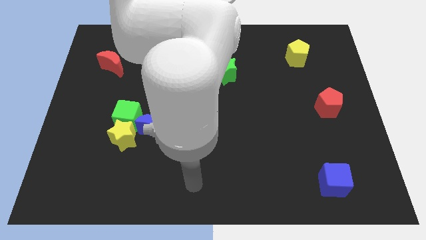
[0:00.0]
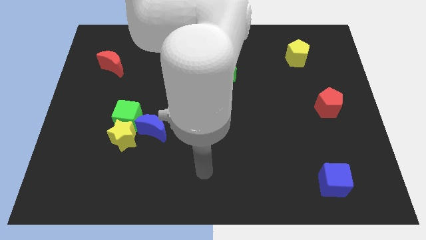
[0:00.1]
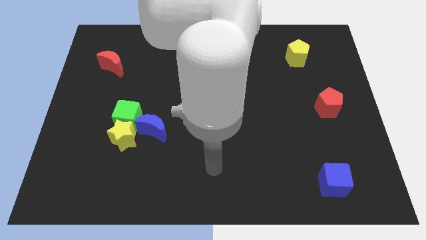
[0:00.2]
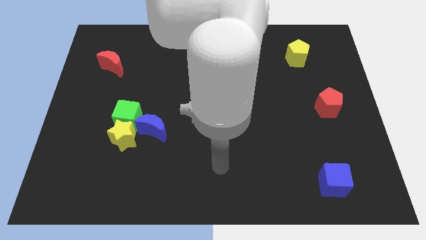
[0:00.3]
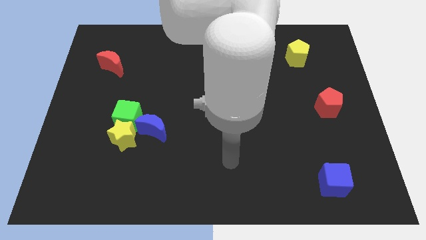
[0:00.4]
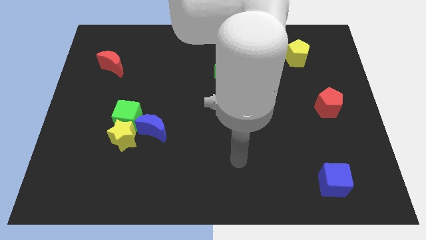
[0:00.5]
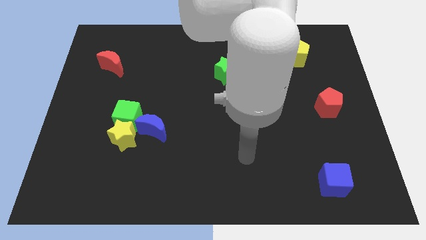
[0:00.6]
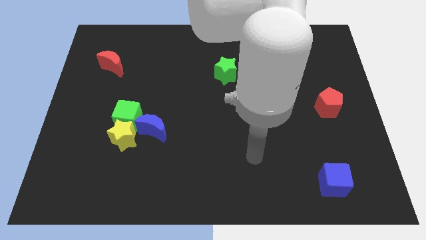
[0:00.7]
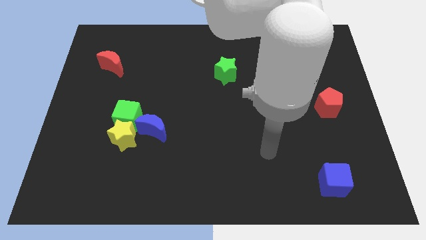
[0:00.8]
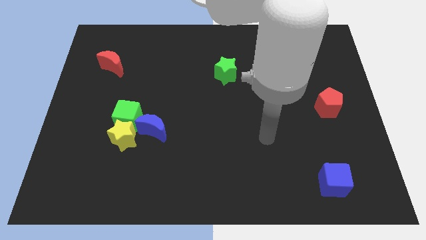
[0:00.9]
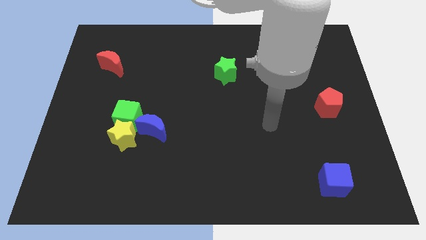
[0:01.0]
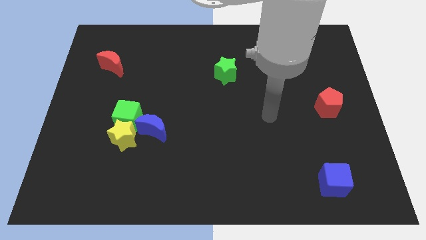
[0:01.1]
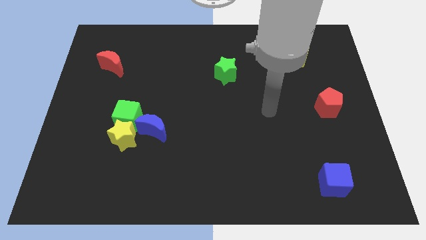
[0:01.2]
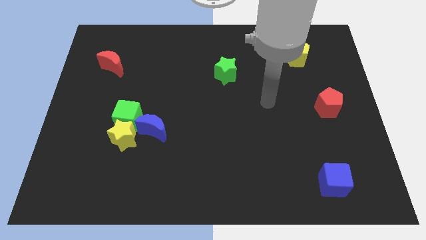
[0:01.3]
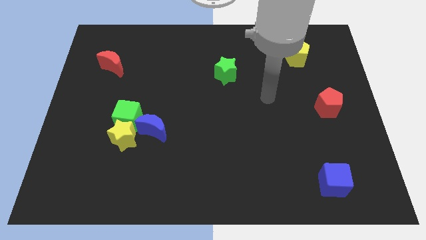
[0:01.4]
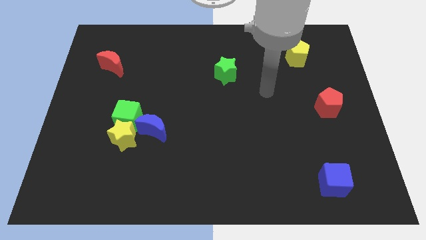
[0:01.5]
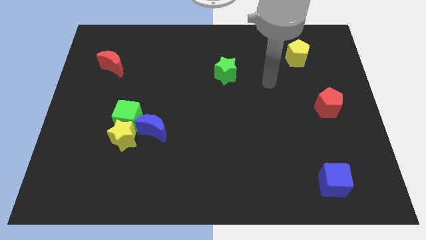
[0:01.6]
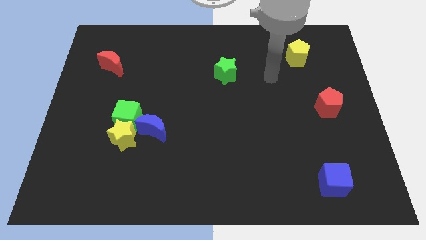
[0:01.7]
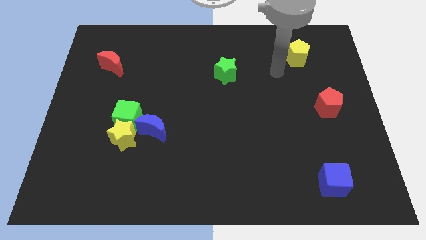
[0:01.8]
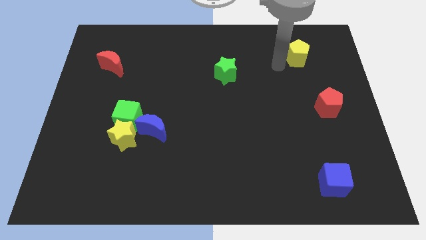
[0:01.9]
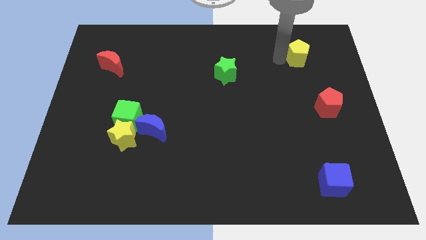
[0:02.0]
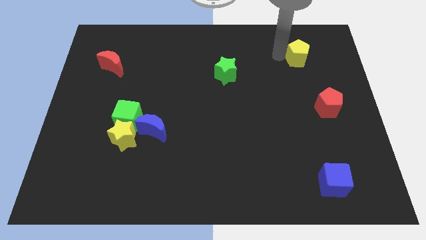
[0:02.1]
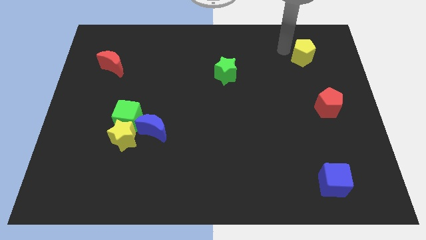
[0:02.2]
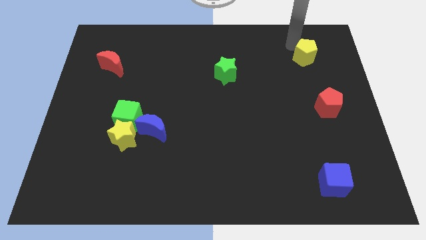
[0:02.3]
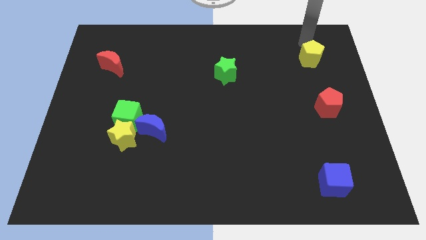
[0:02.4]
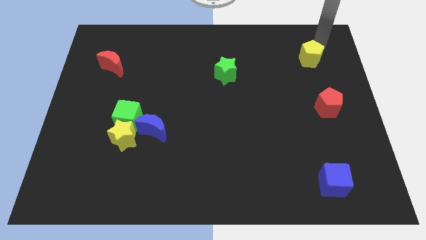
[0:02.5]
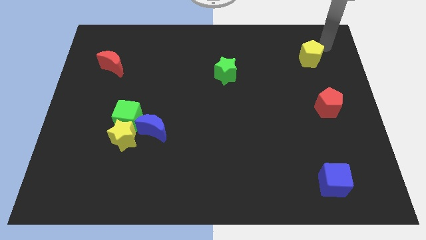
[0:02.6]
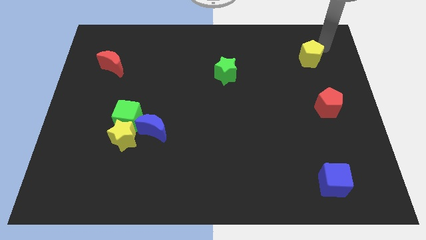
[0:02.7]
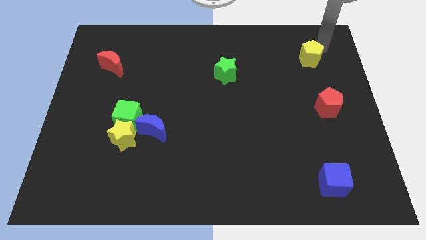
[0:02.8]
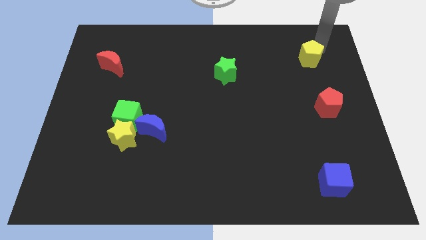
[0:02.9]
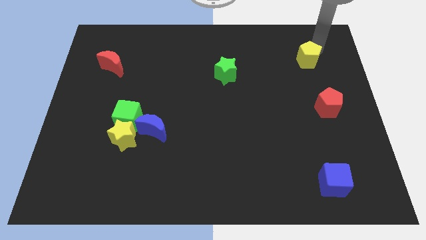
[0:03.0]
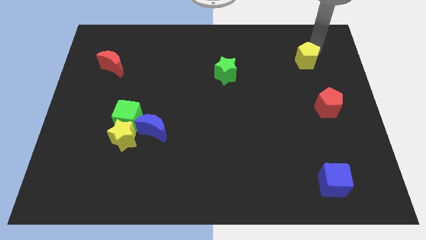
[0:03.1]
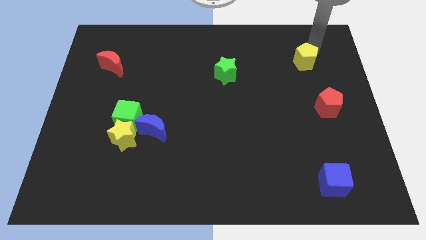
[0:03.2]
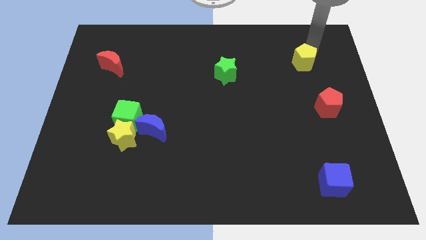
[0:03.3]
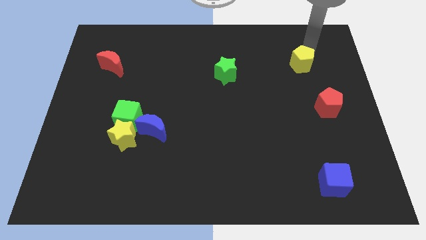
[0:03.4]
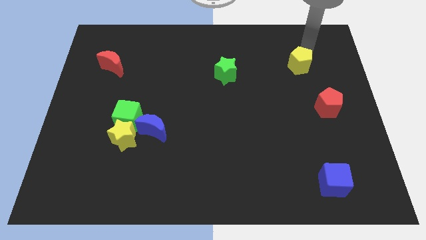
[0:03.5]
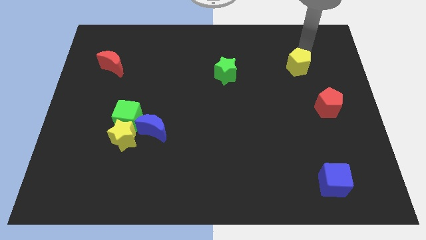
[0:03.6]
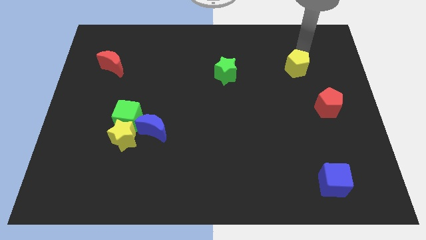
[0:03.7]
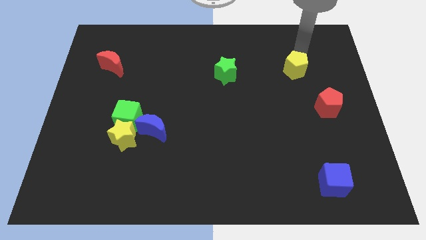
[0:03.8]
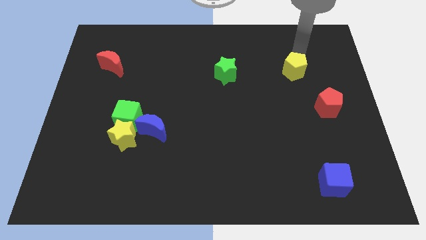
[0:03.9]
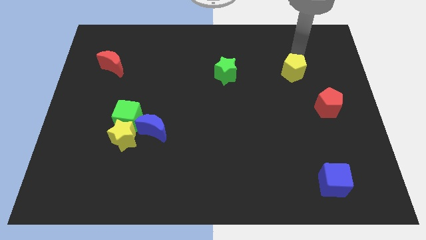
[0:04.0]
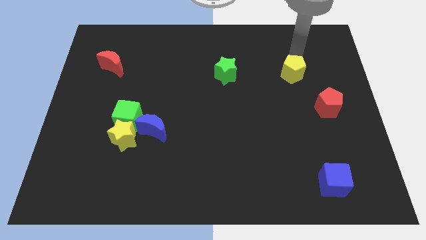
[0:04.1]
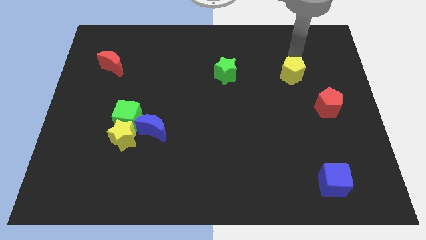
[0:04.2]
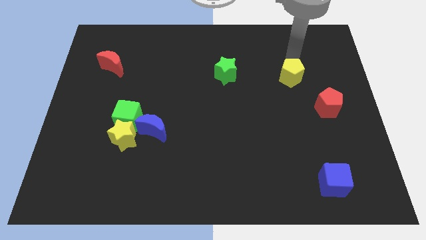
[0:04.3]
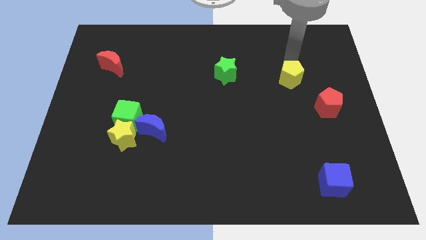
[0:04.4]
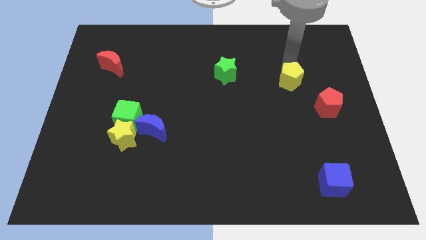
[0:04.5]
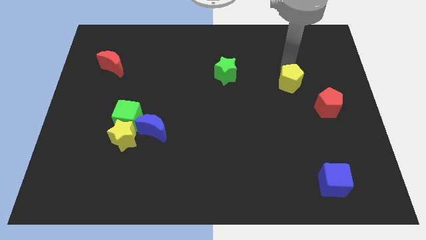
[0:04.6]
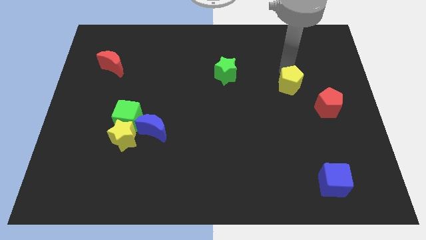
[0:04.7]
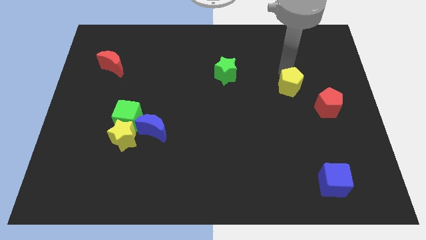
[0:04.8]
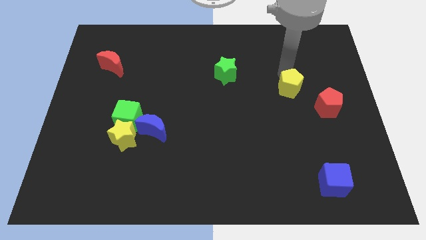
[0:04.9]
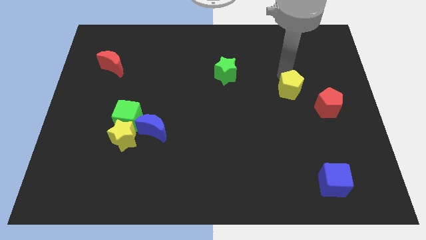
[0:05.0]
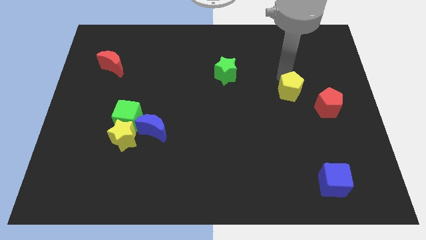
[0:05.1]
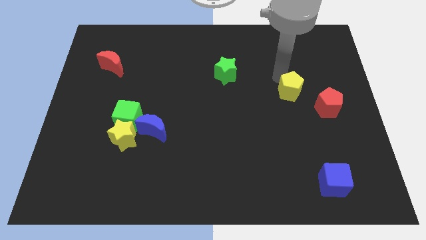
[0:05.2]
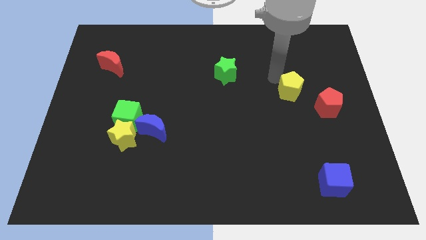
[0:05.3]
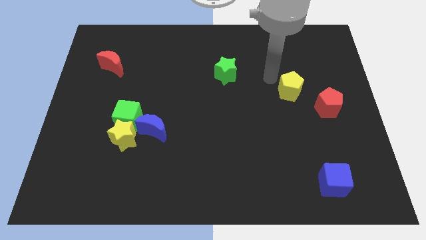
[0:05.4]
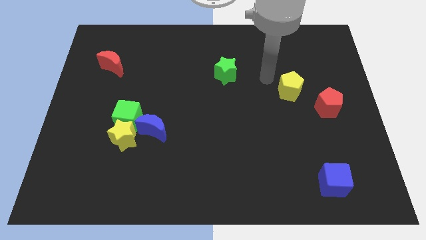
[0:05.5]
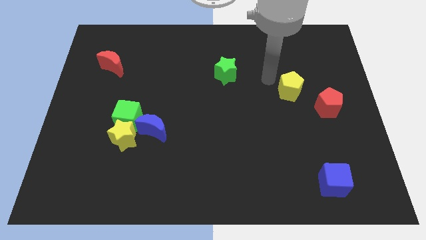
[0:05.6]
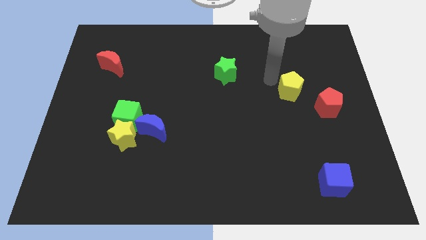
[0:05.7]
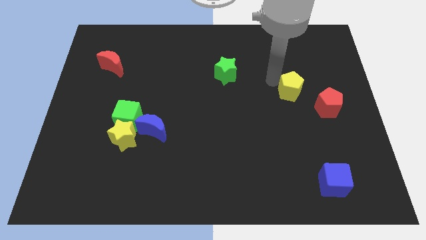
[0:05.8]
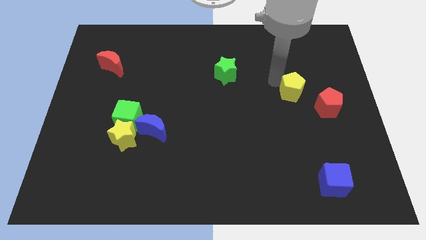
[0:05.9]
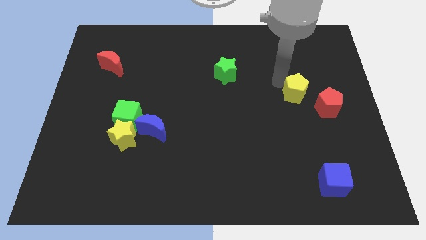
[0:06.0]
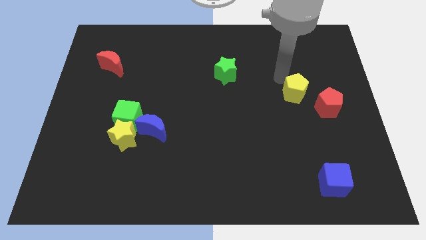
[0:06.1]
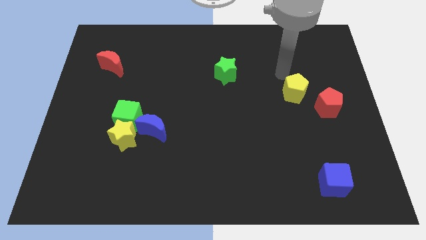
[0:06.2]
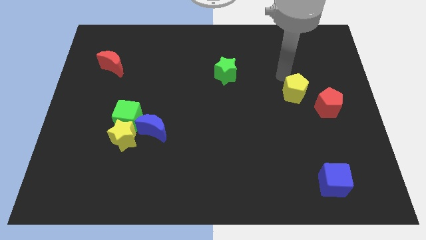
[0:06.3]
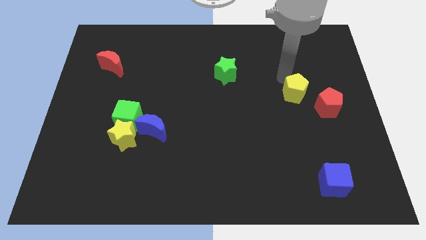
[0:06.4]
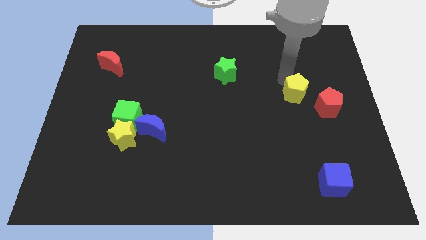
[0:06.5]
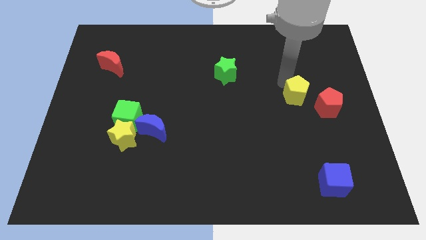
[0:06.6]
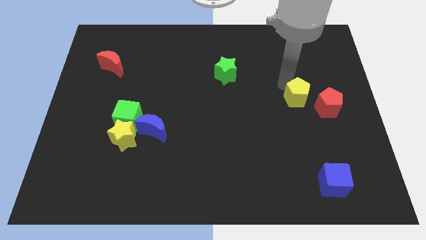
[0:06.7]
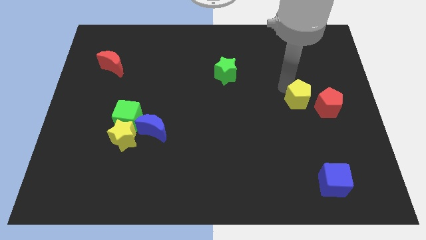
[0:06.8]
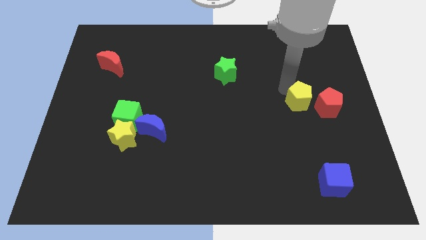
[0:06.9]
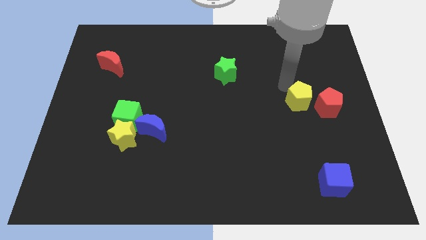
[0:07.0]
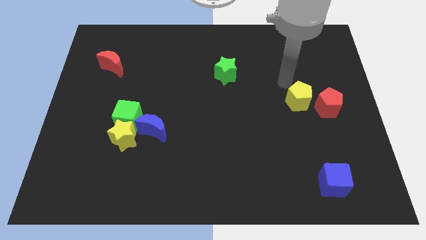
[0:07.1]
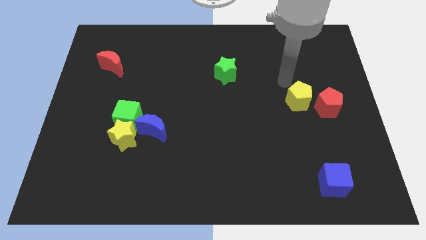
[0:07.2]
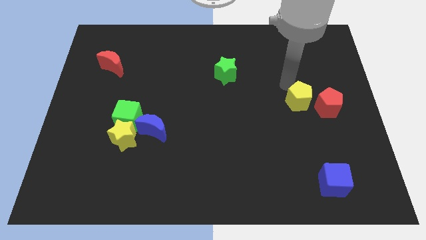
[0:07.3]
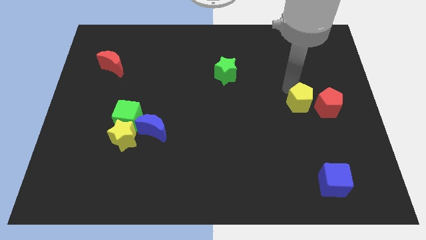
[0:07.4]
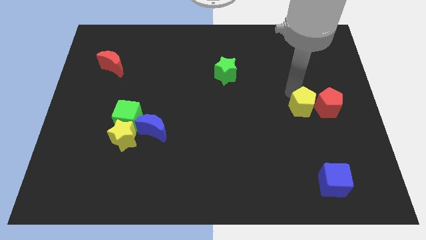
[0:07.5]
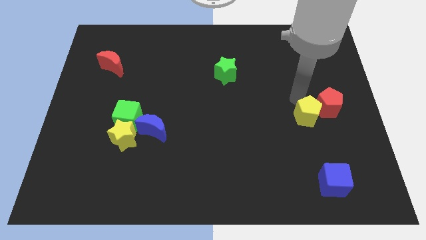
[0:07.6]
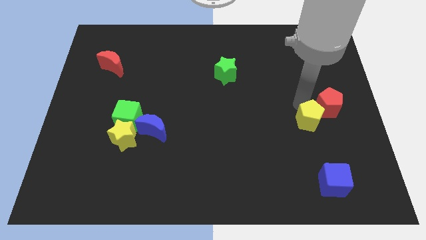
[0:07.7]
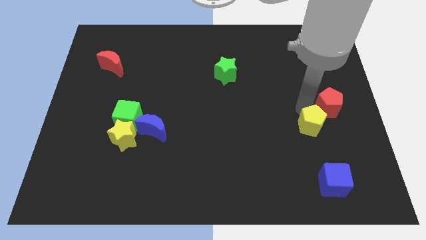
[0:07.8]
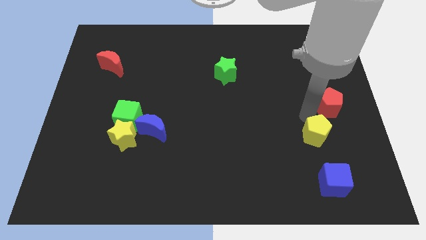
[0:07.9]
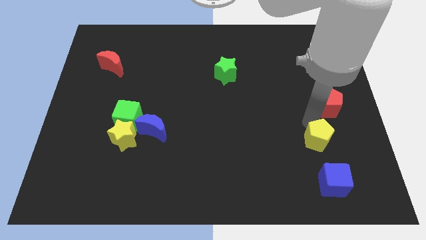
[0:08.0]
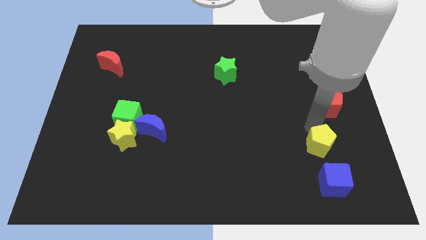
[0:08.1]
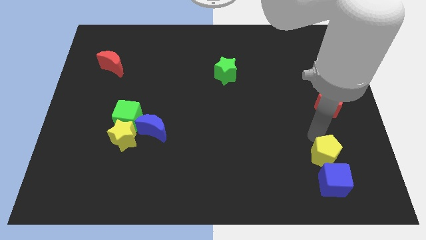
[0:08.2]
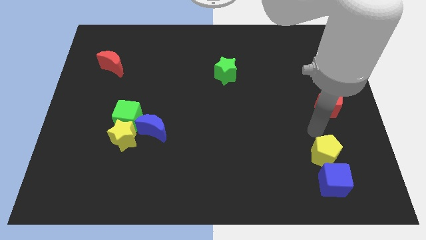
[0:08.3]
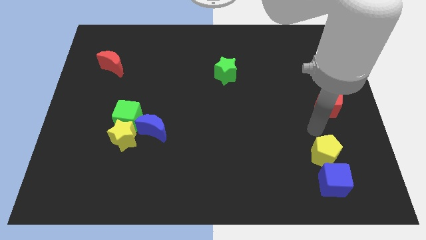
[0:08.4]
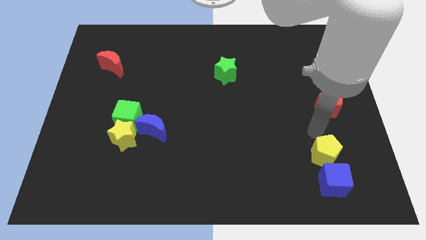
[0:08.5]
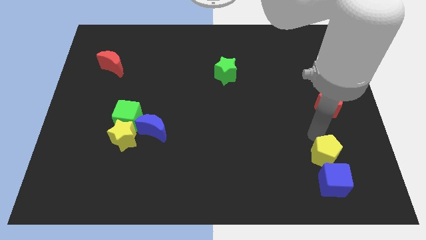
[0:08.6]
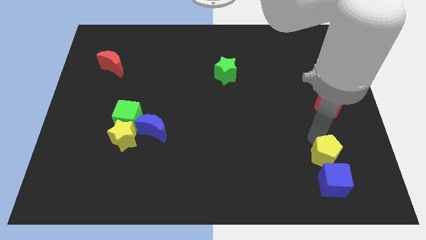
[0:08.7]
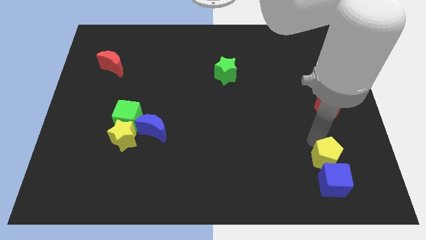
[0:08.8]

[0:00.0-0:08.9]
put the yellow pentagon next to the blue cube
